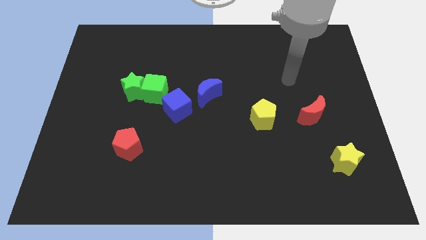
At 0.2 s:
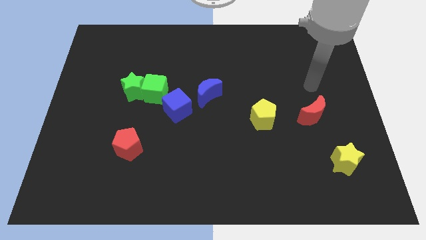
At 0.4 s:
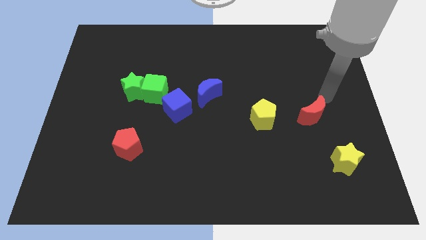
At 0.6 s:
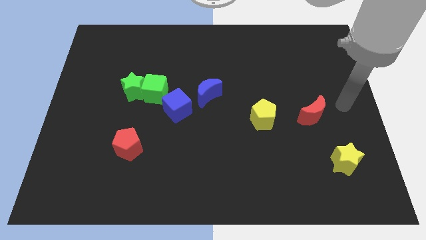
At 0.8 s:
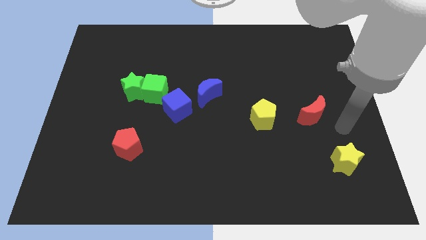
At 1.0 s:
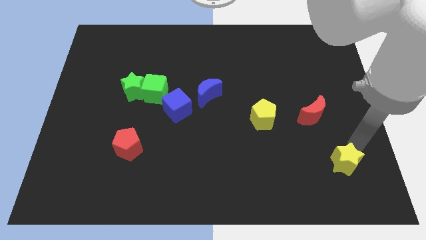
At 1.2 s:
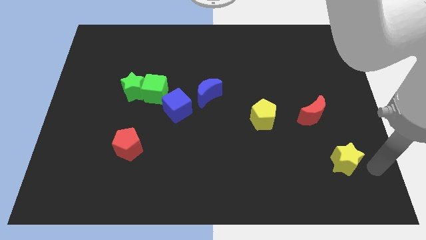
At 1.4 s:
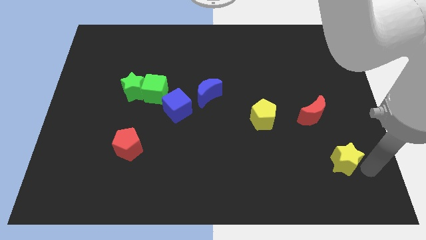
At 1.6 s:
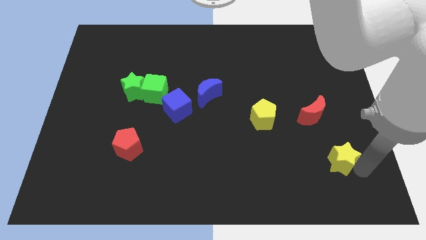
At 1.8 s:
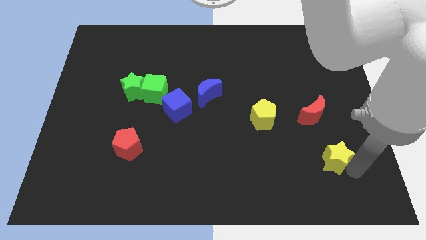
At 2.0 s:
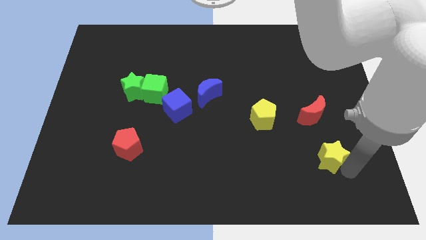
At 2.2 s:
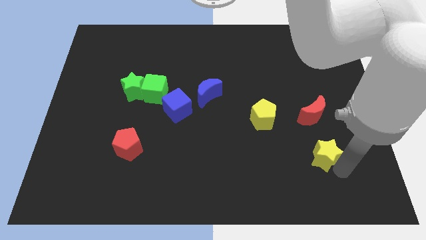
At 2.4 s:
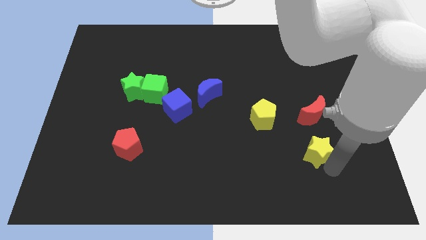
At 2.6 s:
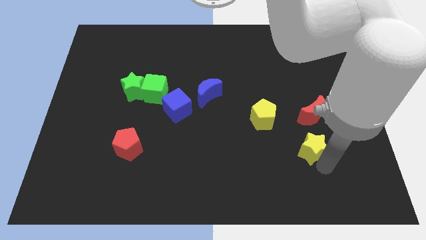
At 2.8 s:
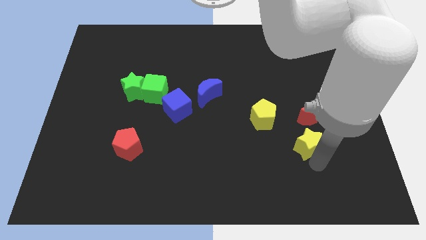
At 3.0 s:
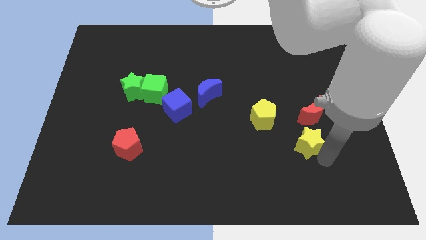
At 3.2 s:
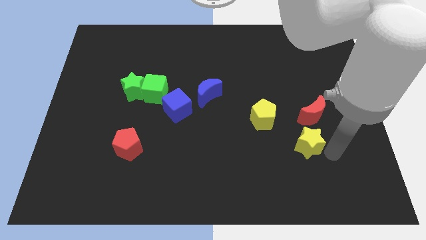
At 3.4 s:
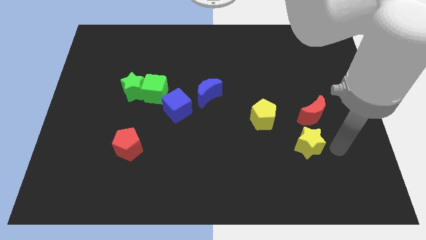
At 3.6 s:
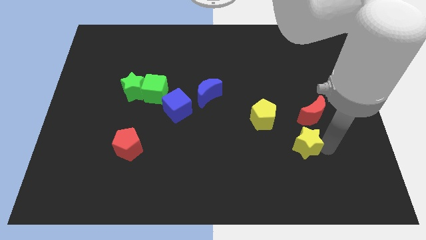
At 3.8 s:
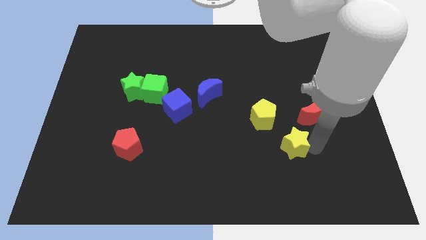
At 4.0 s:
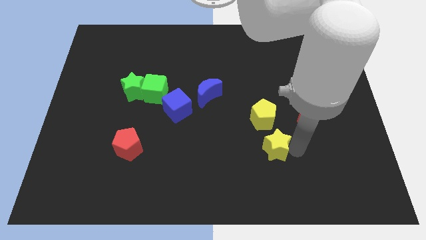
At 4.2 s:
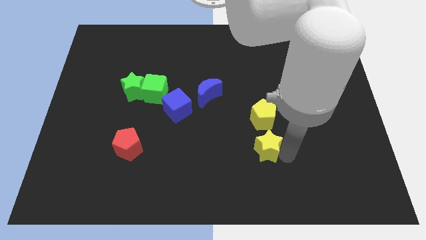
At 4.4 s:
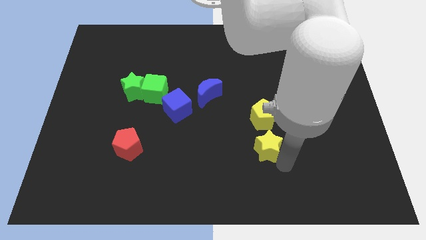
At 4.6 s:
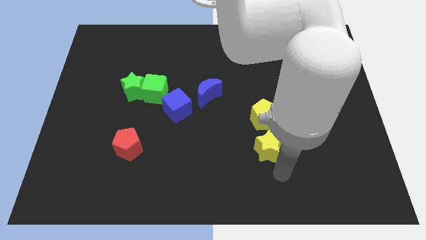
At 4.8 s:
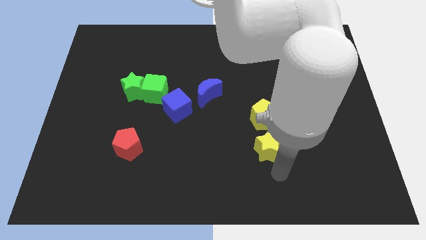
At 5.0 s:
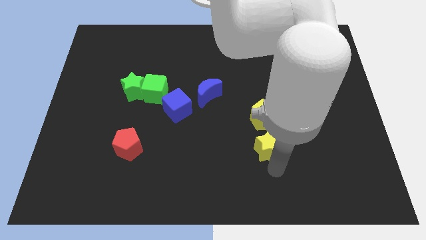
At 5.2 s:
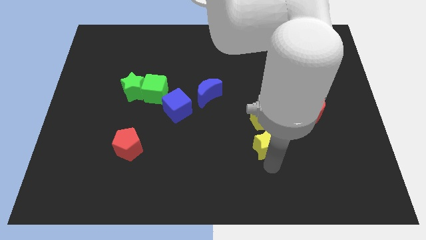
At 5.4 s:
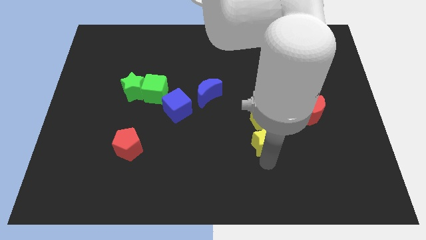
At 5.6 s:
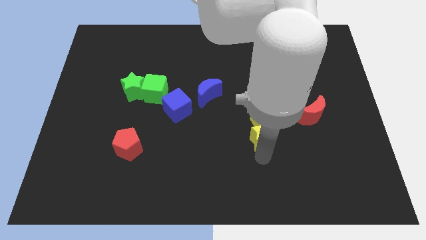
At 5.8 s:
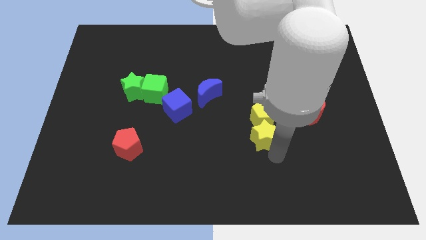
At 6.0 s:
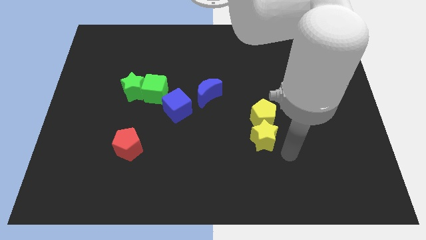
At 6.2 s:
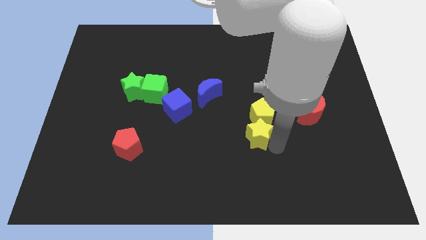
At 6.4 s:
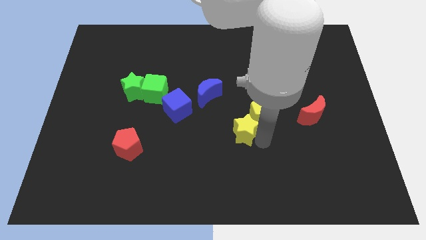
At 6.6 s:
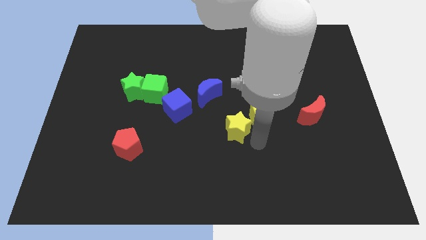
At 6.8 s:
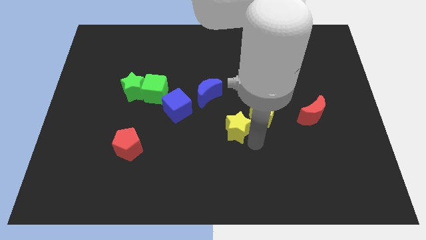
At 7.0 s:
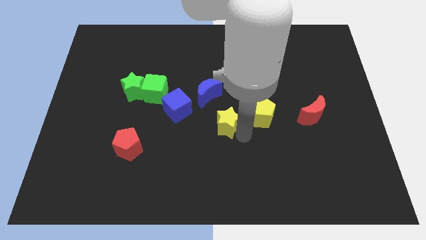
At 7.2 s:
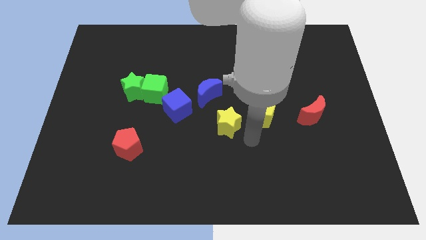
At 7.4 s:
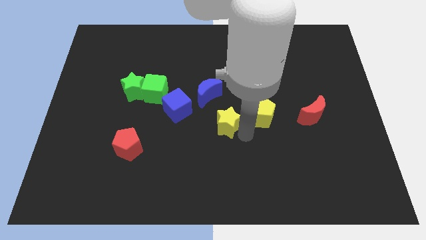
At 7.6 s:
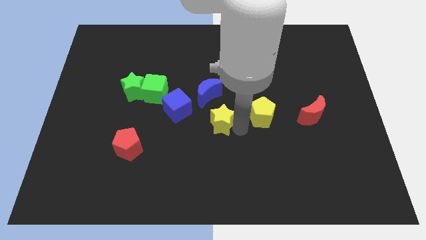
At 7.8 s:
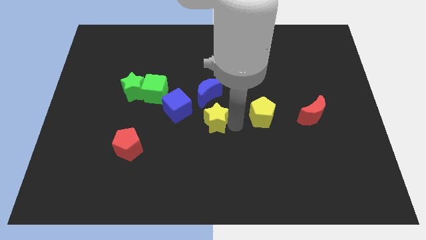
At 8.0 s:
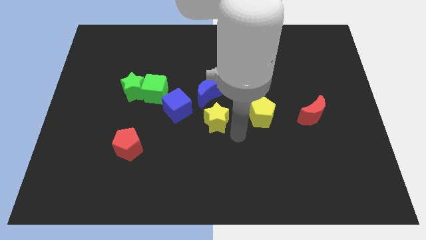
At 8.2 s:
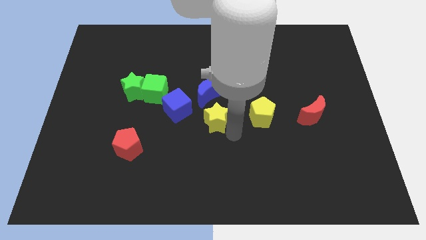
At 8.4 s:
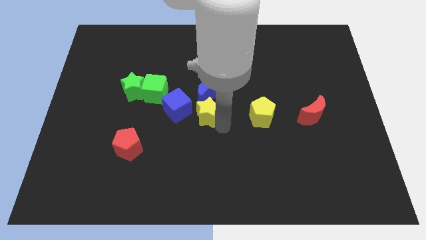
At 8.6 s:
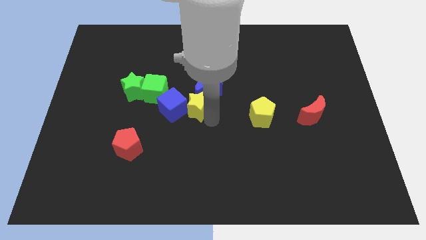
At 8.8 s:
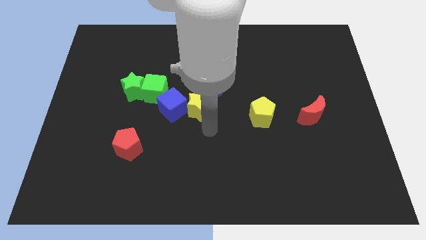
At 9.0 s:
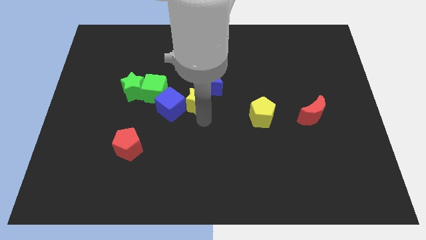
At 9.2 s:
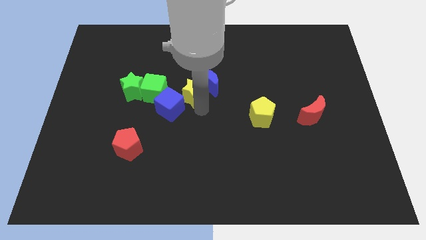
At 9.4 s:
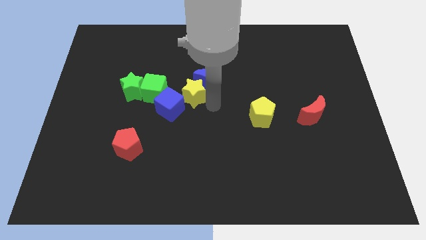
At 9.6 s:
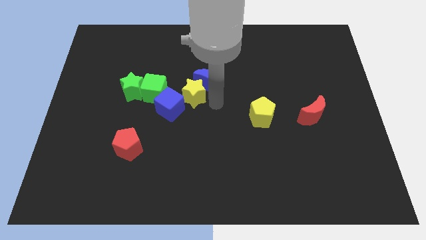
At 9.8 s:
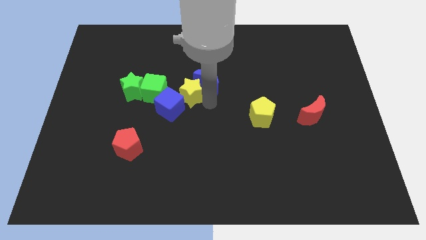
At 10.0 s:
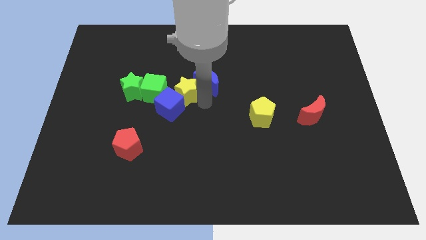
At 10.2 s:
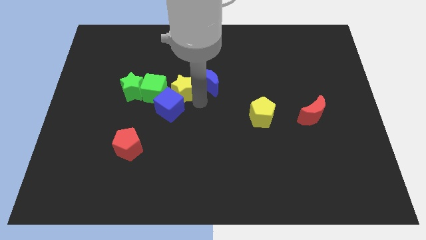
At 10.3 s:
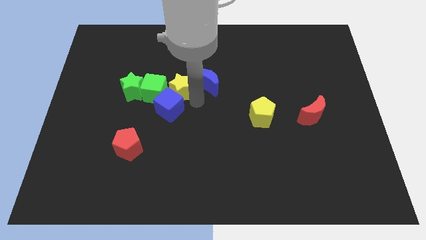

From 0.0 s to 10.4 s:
push the yellow star close to the green cube

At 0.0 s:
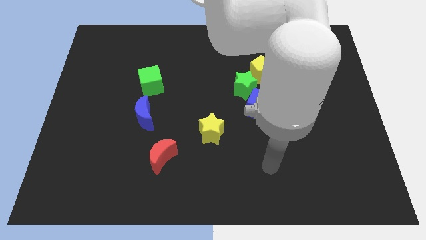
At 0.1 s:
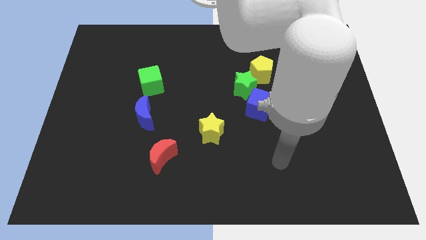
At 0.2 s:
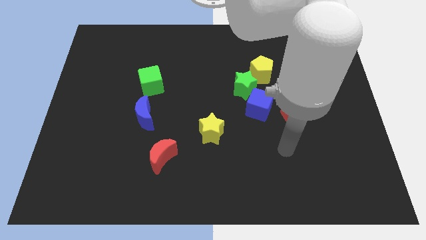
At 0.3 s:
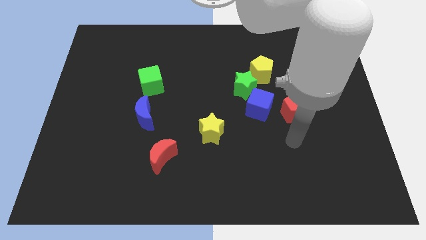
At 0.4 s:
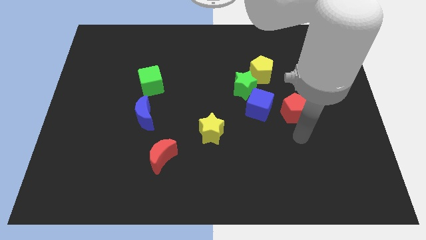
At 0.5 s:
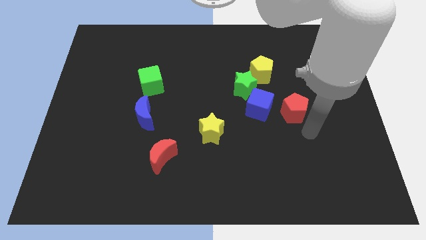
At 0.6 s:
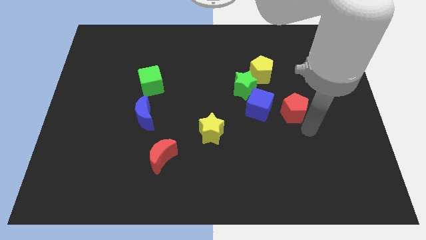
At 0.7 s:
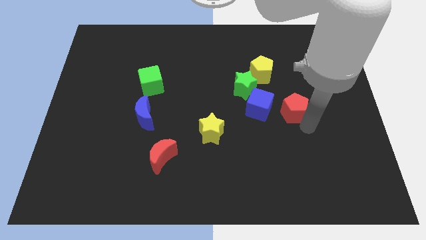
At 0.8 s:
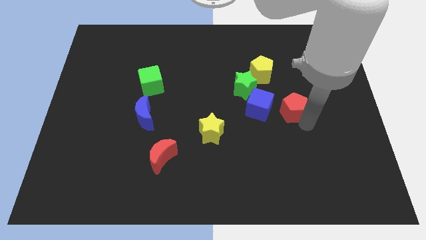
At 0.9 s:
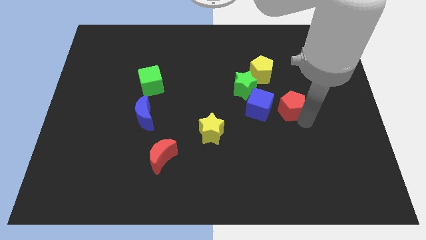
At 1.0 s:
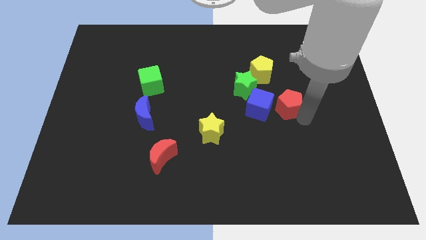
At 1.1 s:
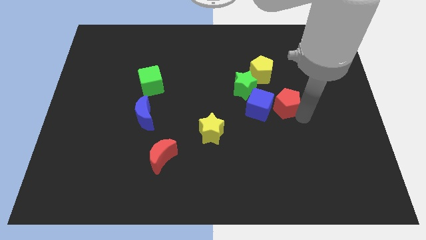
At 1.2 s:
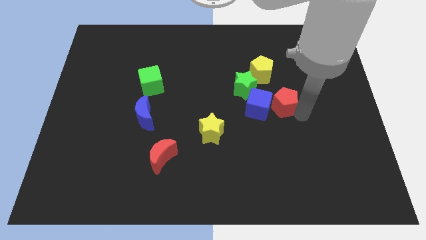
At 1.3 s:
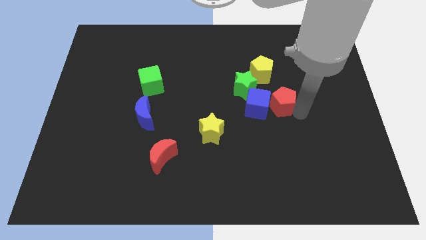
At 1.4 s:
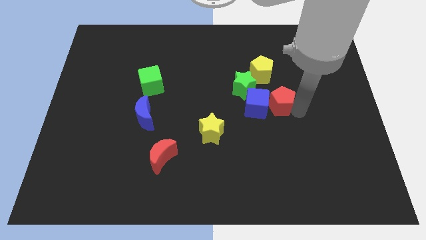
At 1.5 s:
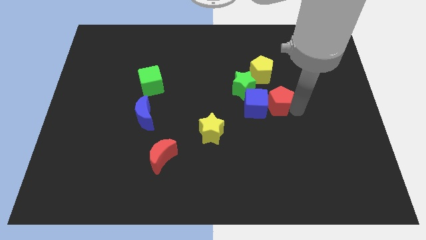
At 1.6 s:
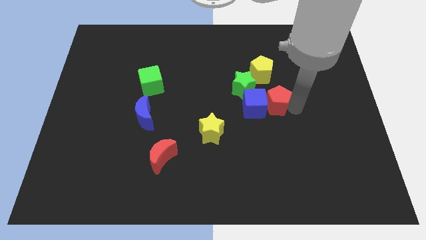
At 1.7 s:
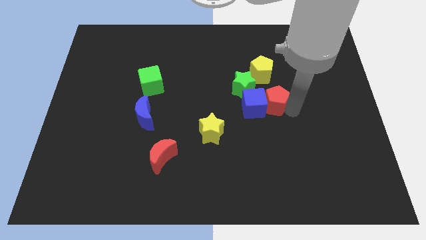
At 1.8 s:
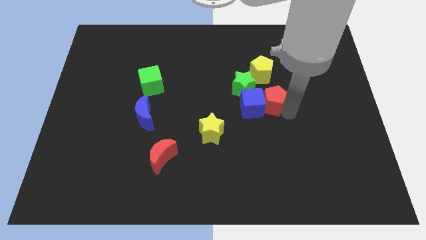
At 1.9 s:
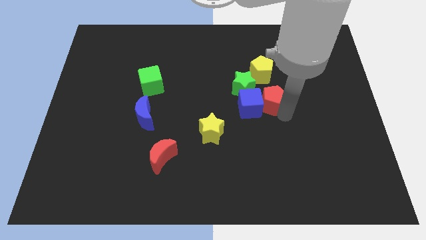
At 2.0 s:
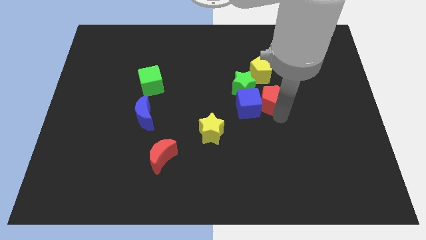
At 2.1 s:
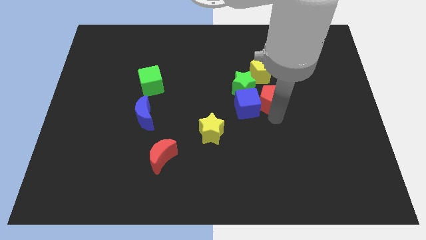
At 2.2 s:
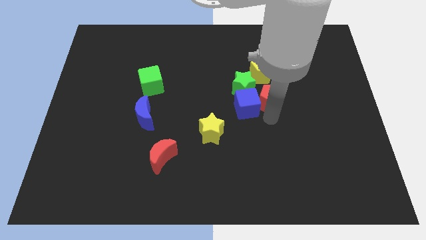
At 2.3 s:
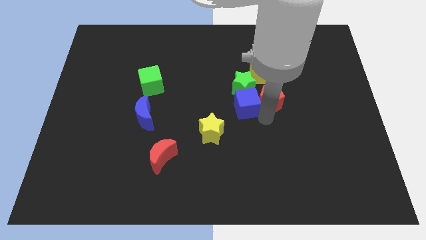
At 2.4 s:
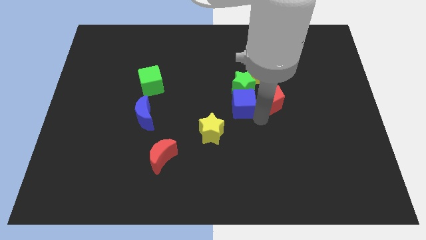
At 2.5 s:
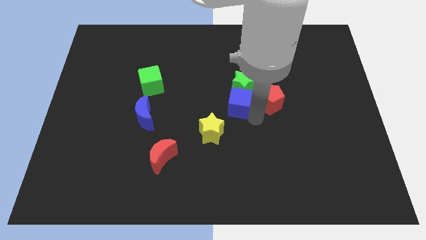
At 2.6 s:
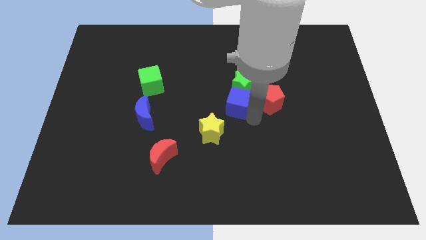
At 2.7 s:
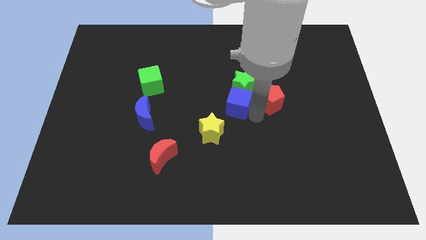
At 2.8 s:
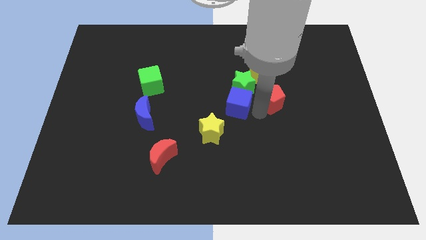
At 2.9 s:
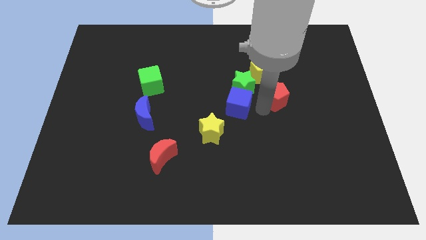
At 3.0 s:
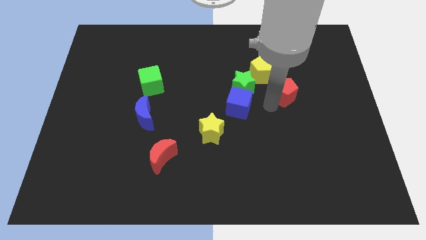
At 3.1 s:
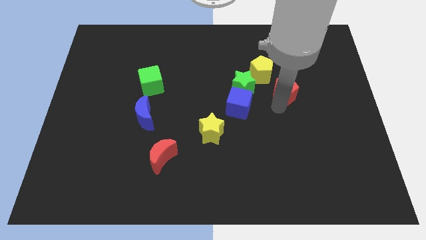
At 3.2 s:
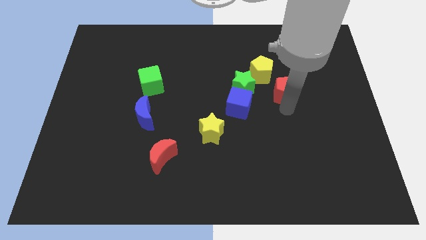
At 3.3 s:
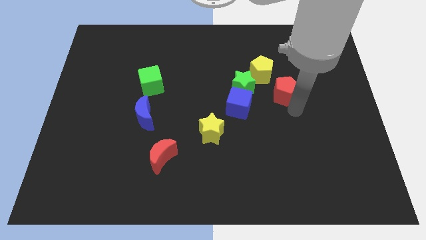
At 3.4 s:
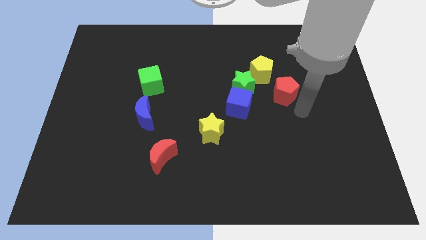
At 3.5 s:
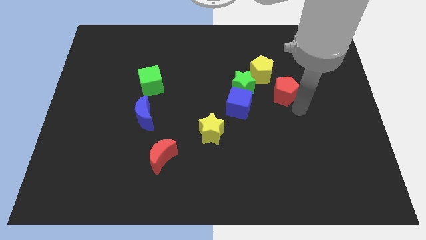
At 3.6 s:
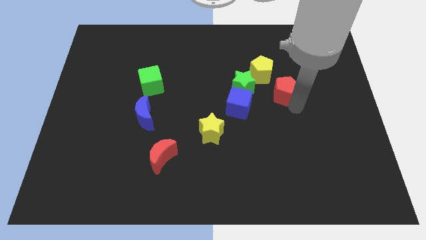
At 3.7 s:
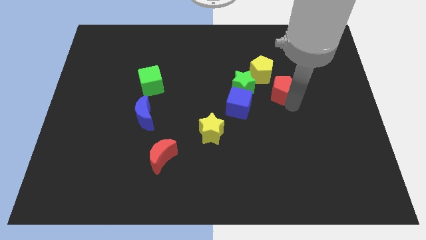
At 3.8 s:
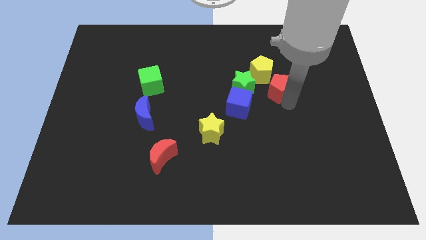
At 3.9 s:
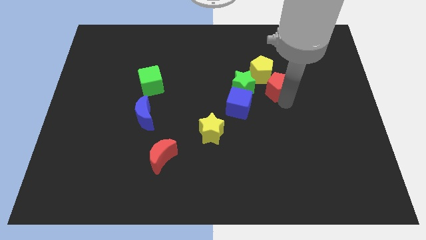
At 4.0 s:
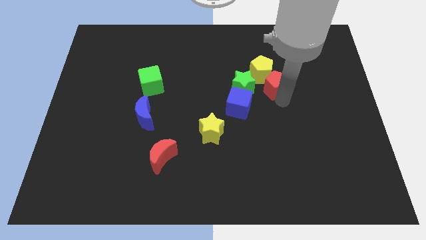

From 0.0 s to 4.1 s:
move the red pentagon next to the yellow pentagon
